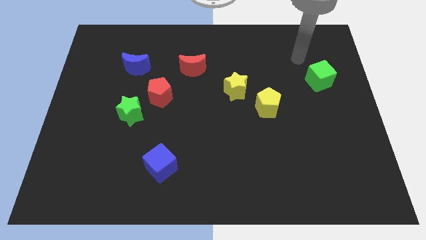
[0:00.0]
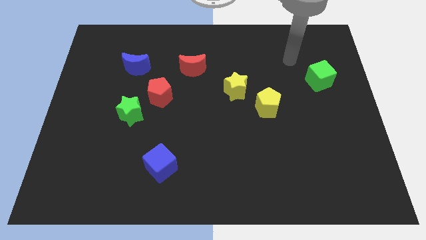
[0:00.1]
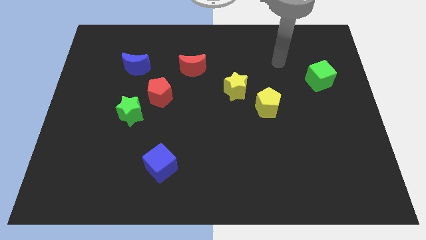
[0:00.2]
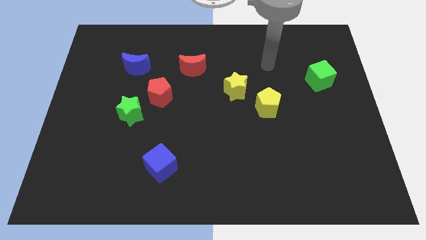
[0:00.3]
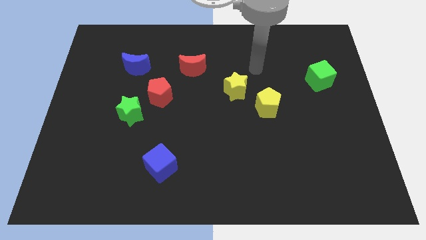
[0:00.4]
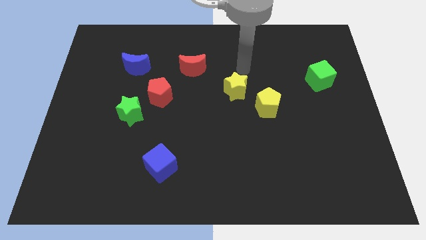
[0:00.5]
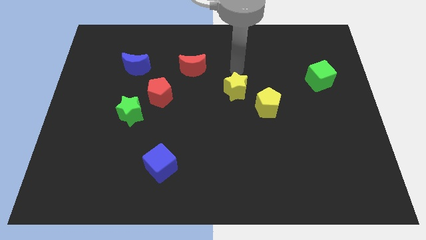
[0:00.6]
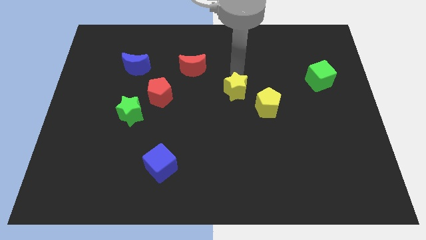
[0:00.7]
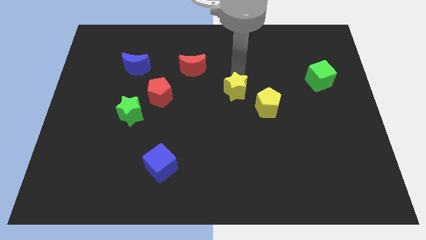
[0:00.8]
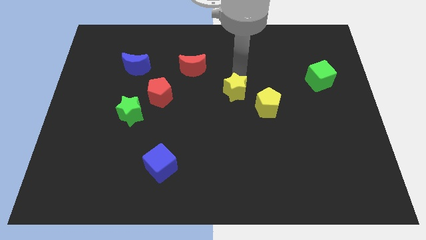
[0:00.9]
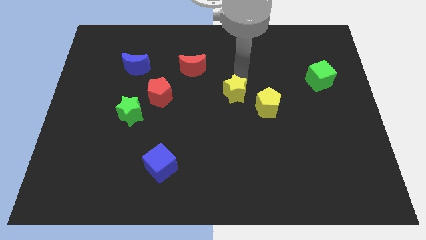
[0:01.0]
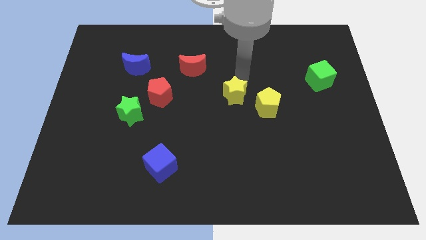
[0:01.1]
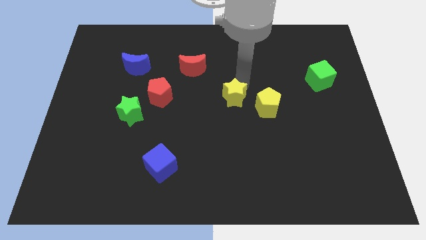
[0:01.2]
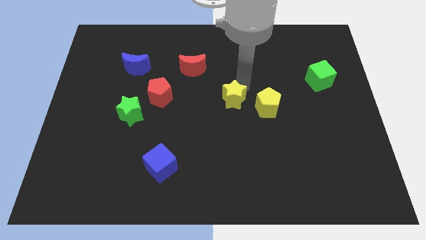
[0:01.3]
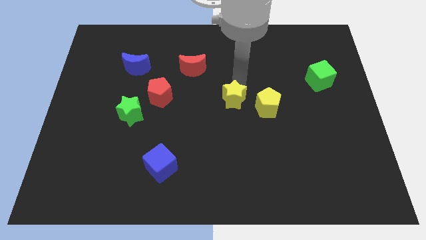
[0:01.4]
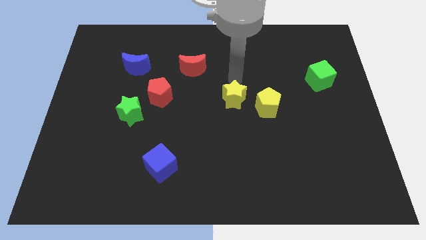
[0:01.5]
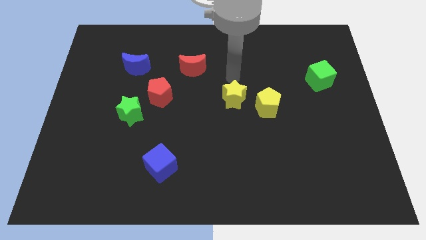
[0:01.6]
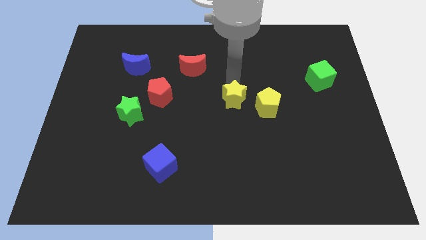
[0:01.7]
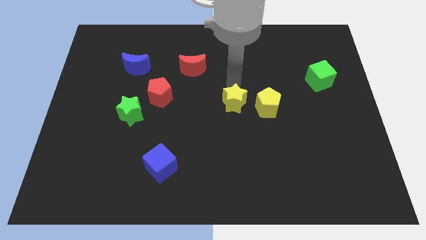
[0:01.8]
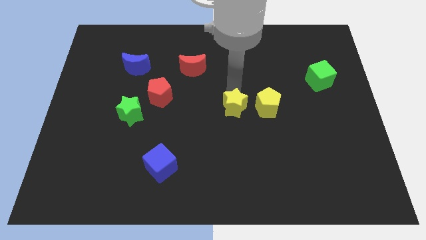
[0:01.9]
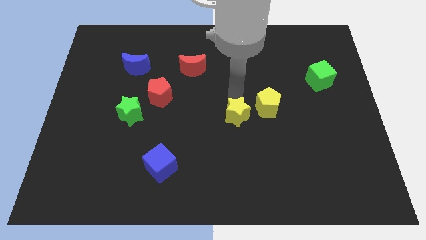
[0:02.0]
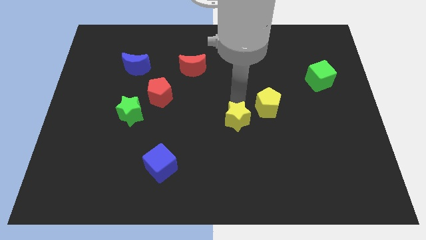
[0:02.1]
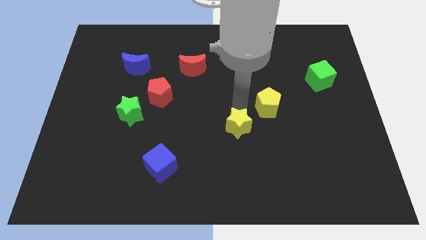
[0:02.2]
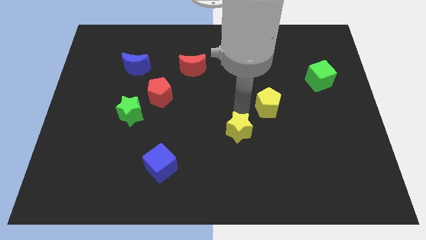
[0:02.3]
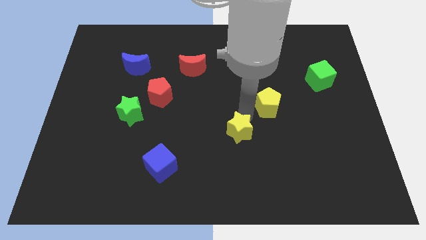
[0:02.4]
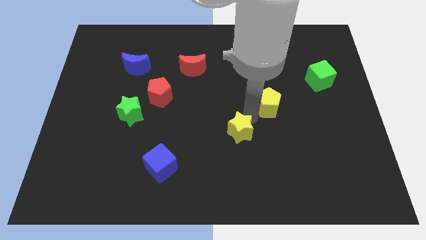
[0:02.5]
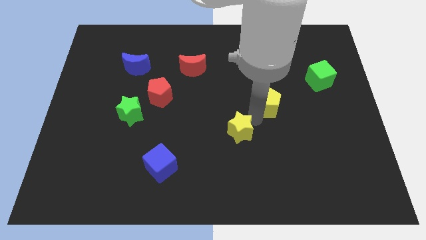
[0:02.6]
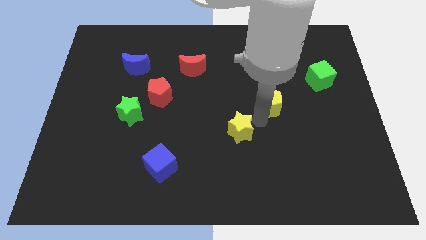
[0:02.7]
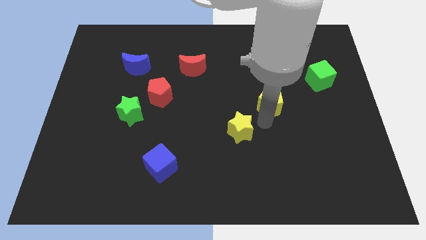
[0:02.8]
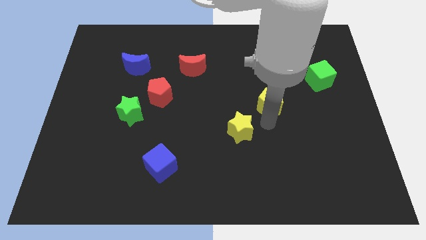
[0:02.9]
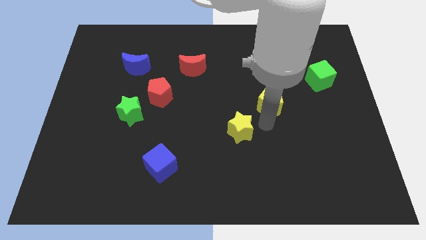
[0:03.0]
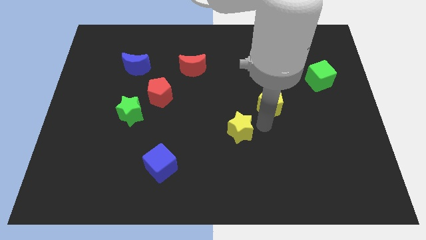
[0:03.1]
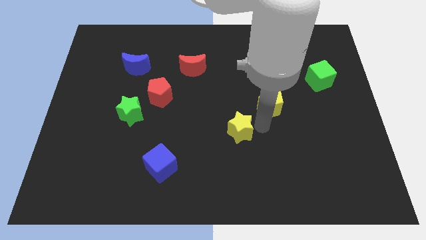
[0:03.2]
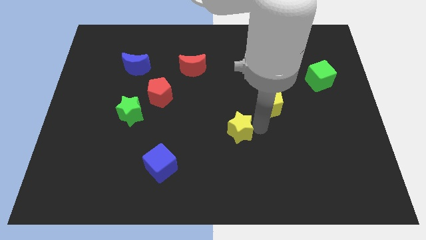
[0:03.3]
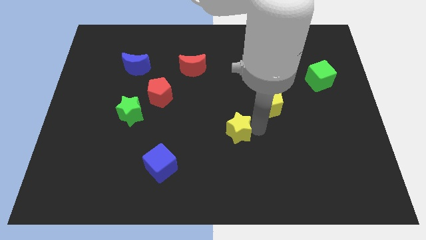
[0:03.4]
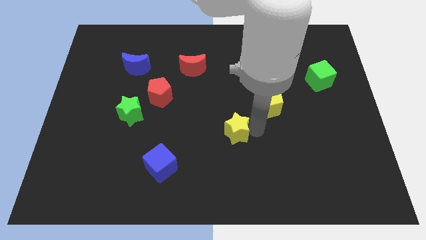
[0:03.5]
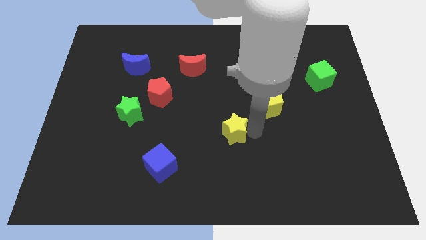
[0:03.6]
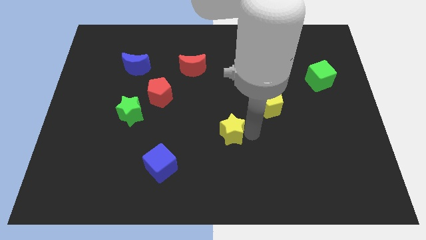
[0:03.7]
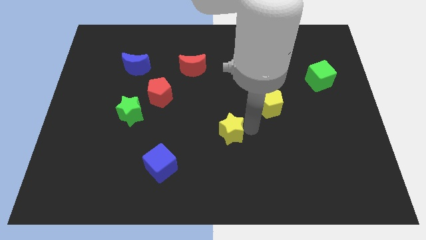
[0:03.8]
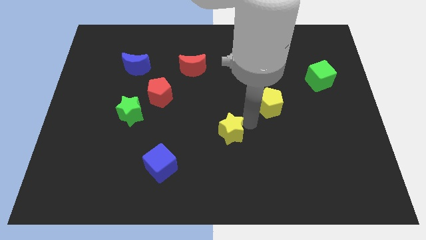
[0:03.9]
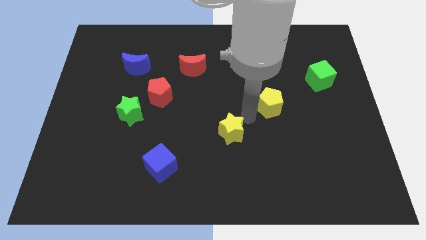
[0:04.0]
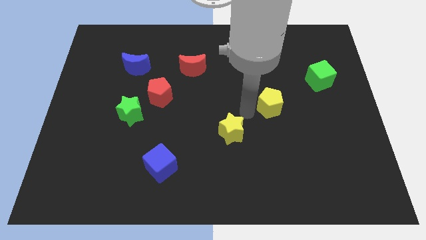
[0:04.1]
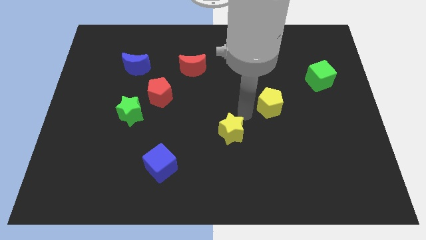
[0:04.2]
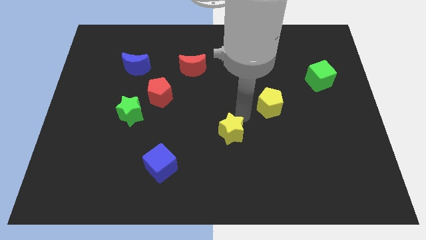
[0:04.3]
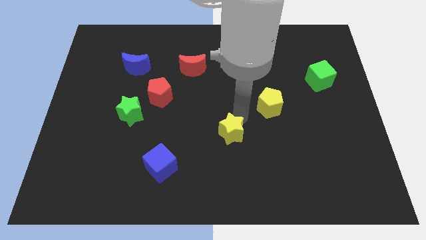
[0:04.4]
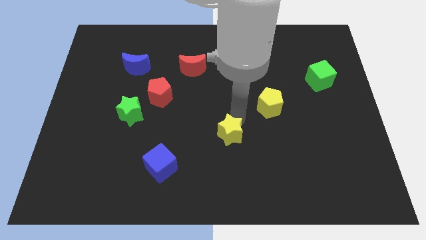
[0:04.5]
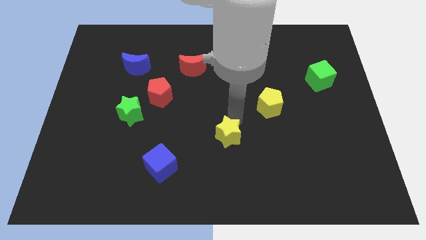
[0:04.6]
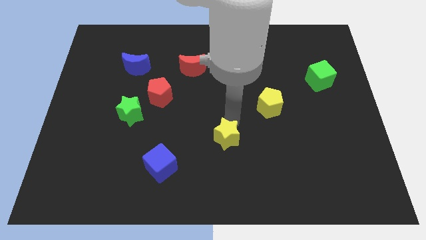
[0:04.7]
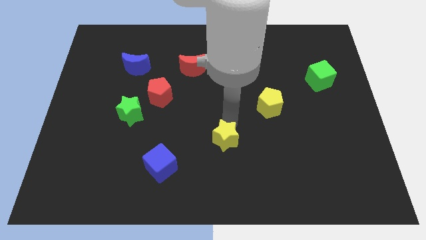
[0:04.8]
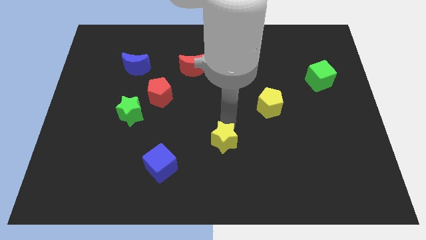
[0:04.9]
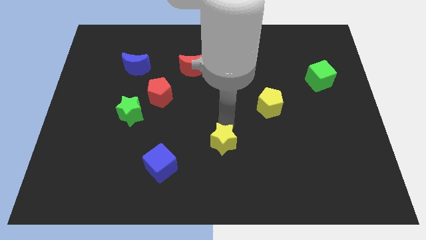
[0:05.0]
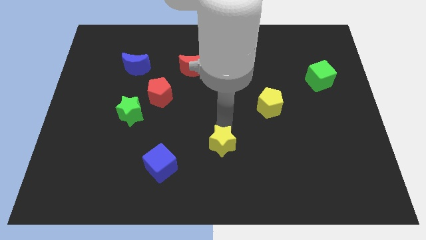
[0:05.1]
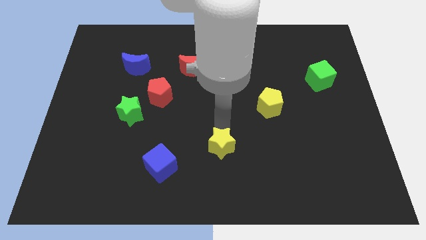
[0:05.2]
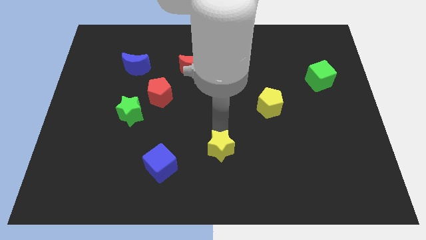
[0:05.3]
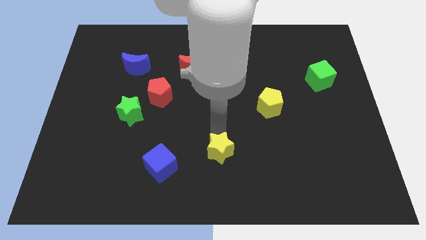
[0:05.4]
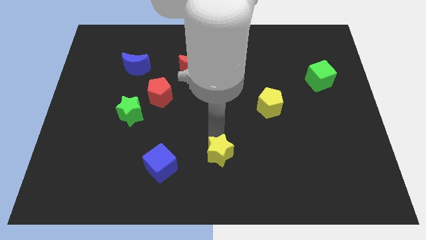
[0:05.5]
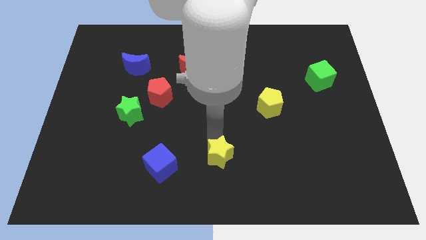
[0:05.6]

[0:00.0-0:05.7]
slide the yellow star to the bottom

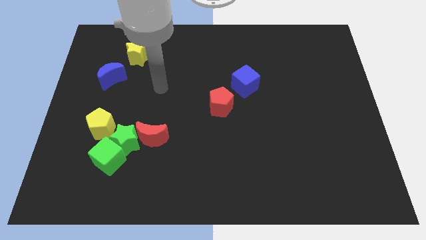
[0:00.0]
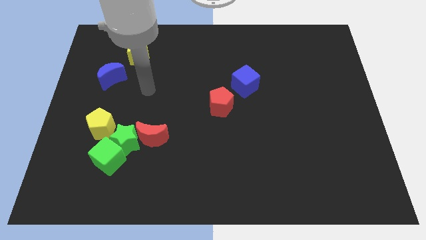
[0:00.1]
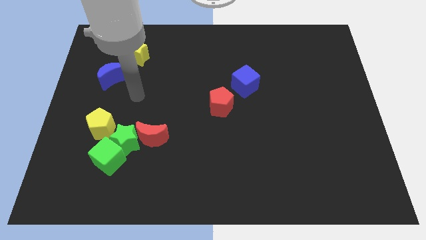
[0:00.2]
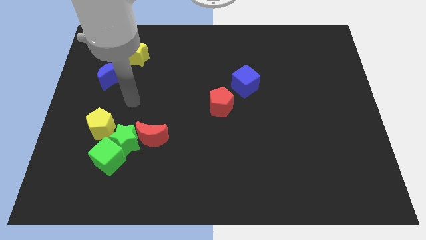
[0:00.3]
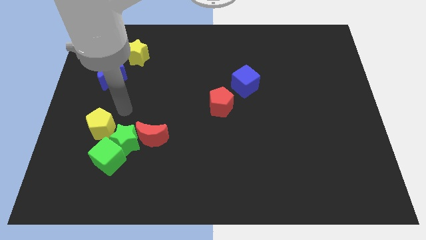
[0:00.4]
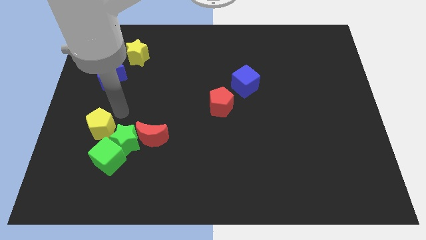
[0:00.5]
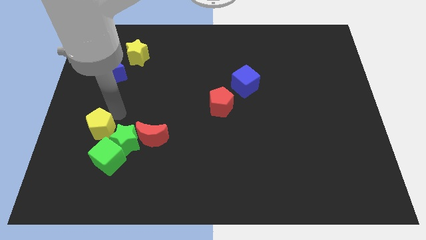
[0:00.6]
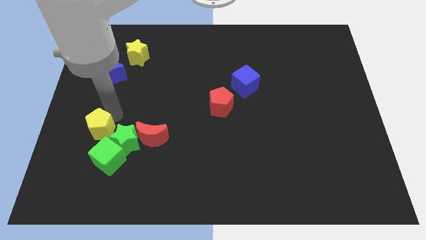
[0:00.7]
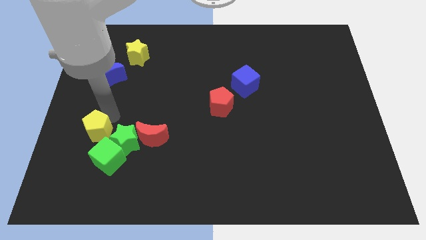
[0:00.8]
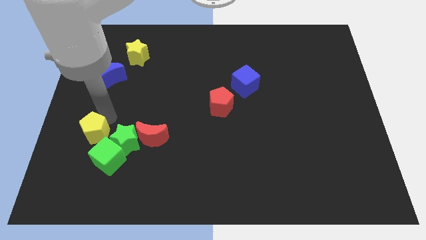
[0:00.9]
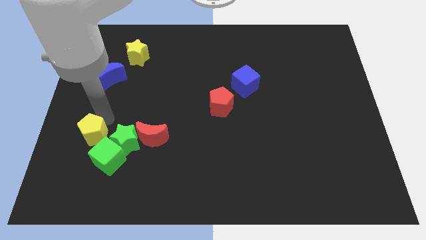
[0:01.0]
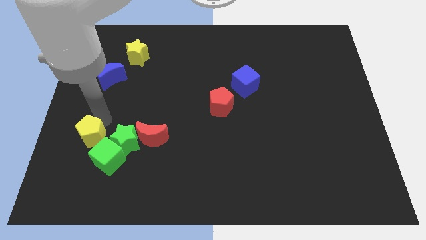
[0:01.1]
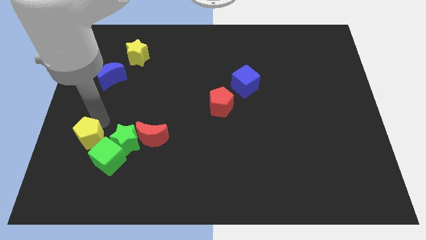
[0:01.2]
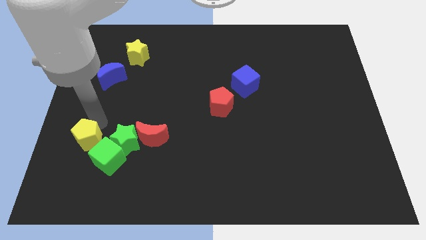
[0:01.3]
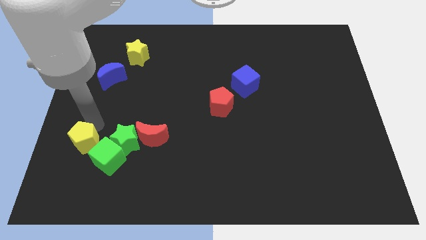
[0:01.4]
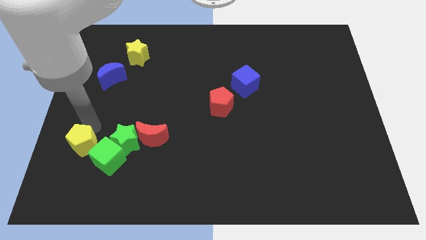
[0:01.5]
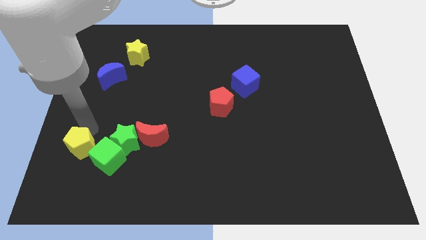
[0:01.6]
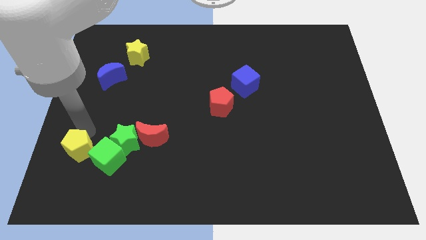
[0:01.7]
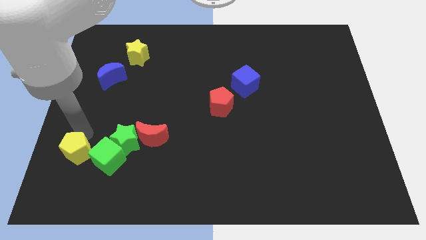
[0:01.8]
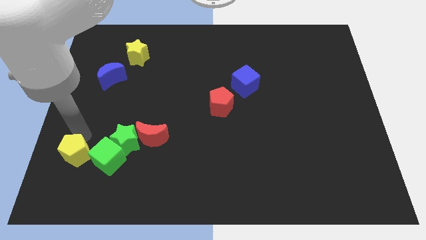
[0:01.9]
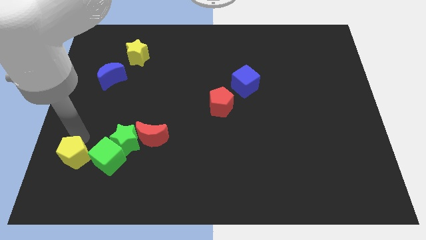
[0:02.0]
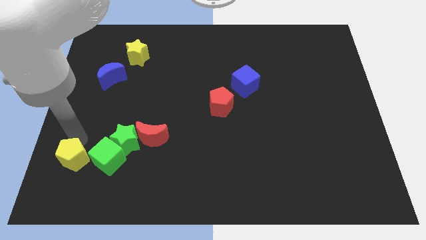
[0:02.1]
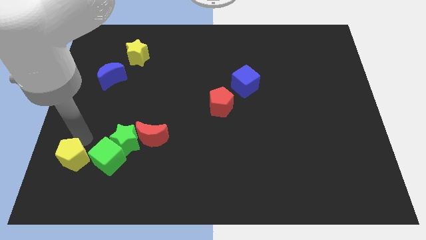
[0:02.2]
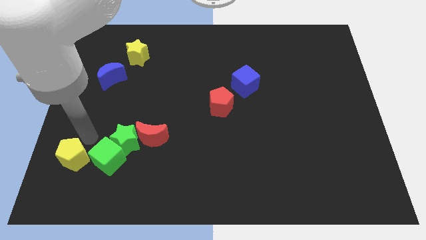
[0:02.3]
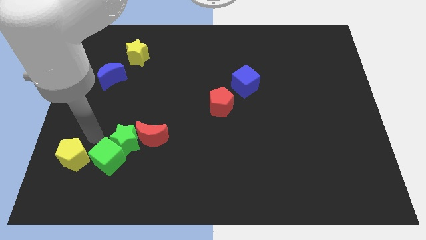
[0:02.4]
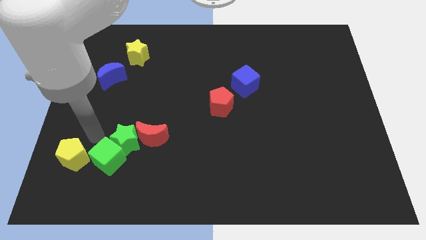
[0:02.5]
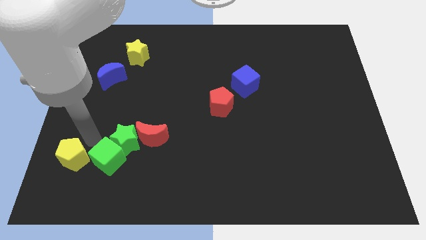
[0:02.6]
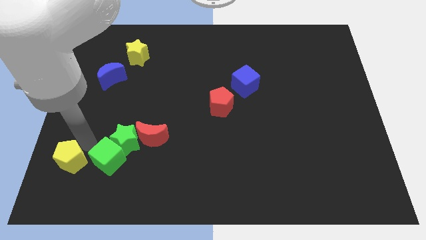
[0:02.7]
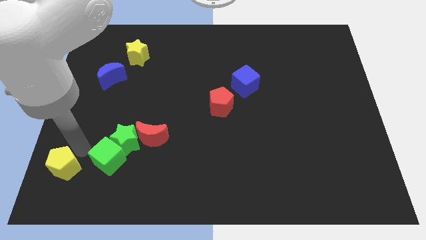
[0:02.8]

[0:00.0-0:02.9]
slide the yellow pentagon to the lower left corner
